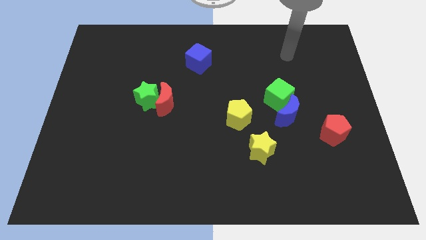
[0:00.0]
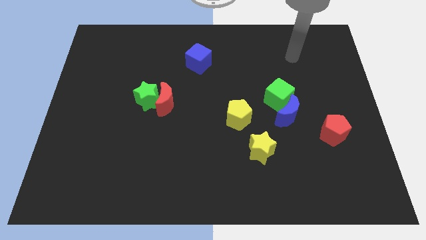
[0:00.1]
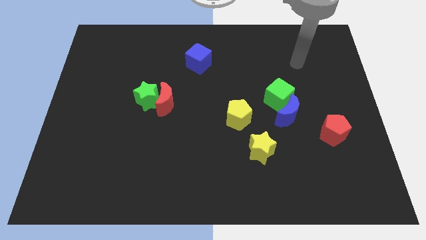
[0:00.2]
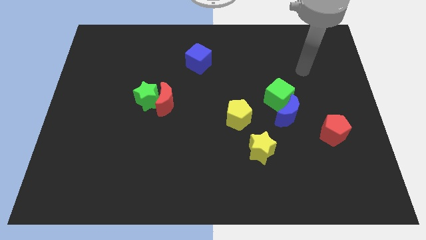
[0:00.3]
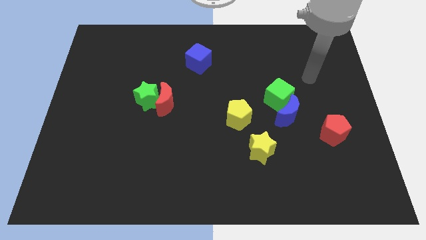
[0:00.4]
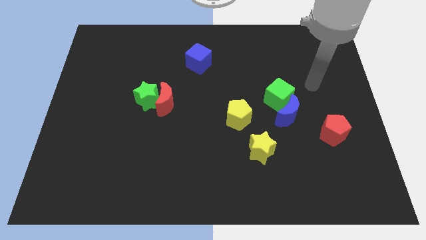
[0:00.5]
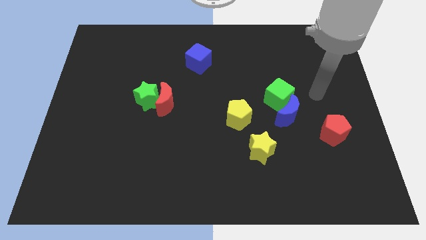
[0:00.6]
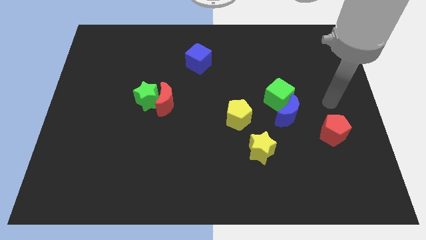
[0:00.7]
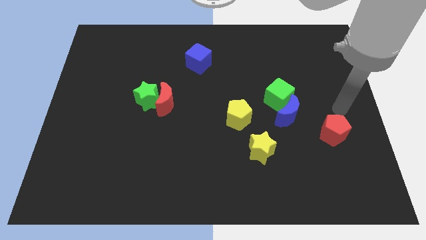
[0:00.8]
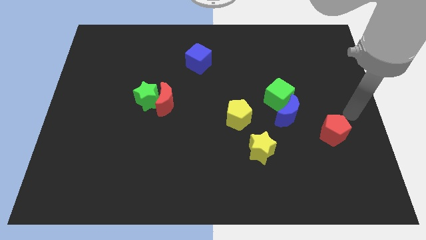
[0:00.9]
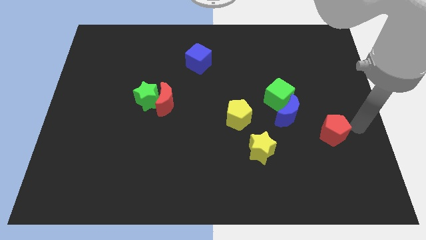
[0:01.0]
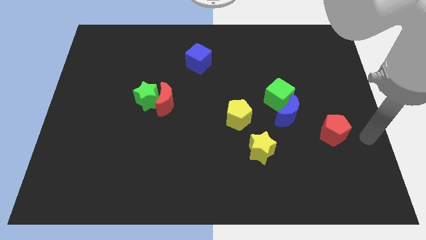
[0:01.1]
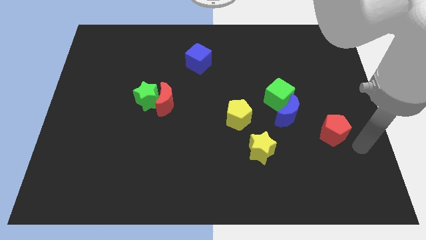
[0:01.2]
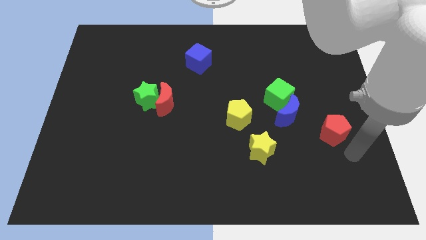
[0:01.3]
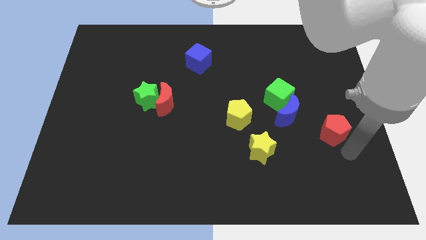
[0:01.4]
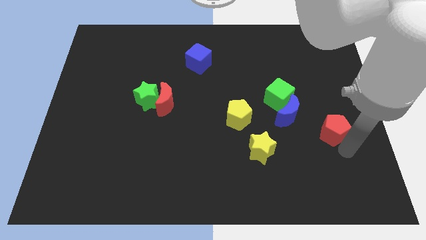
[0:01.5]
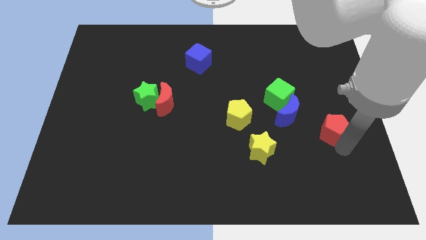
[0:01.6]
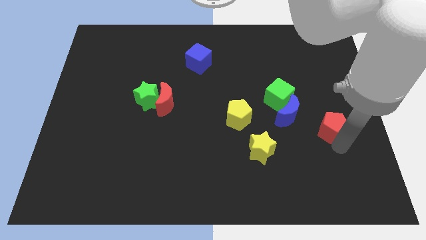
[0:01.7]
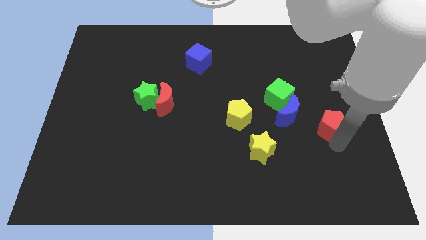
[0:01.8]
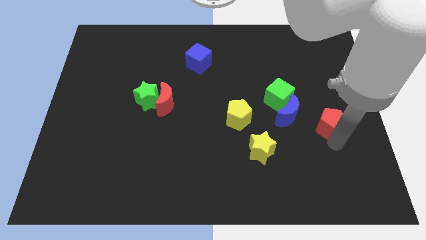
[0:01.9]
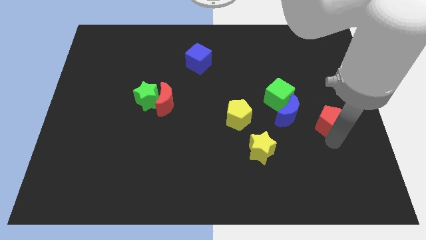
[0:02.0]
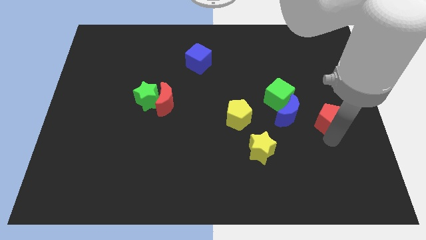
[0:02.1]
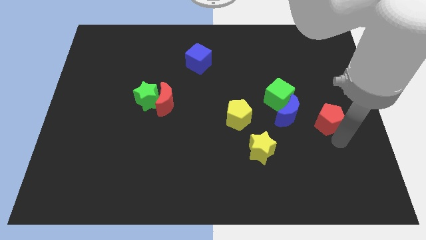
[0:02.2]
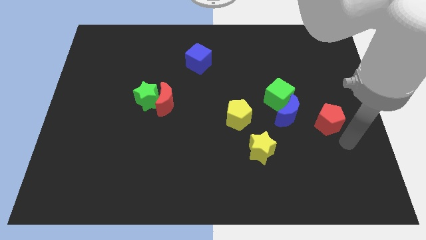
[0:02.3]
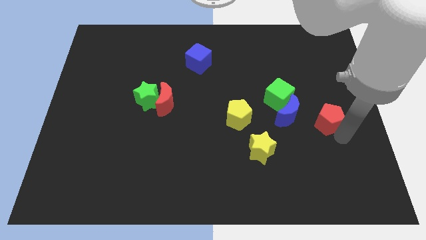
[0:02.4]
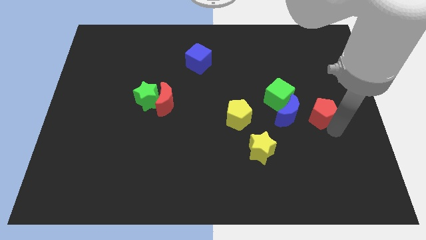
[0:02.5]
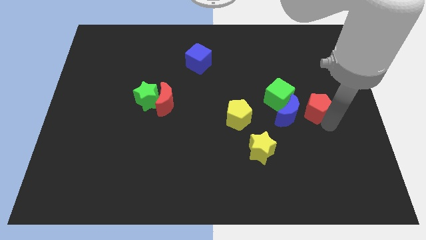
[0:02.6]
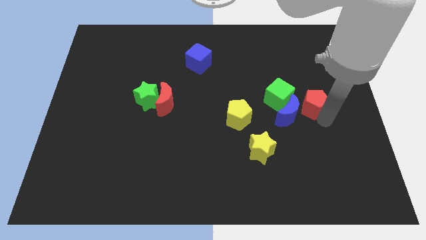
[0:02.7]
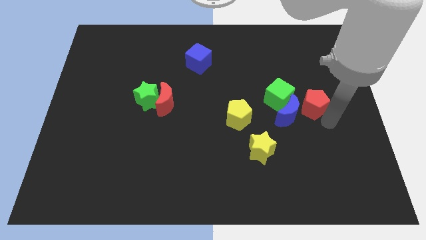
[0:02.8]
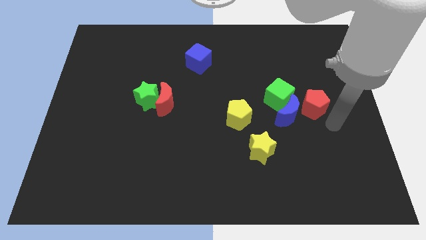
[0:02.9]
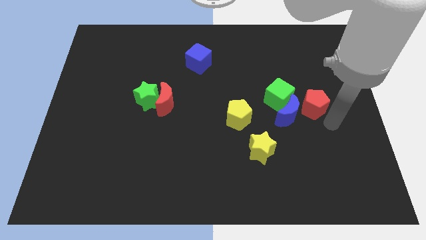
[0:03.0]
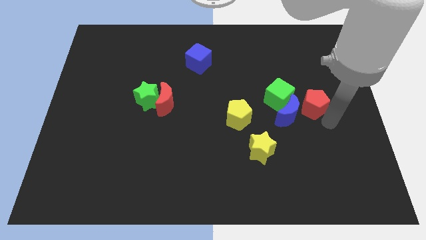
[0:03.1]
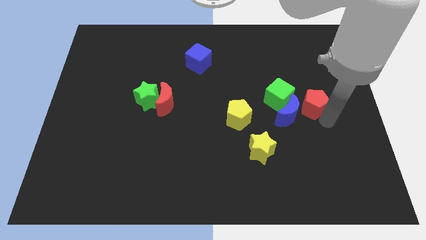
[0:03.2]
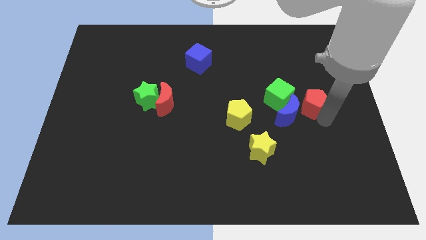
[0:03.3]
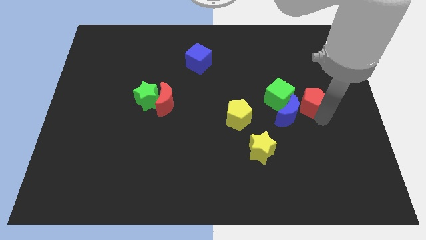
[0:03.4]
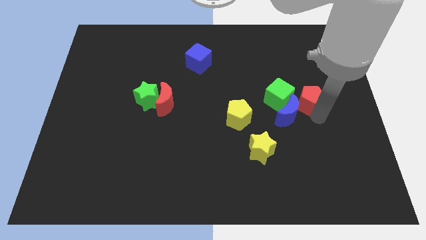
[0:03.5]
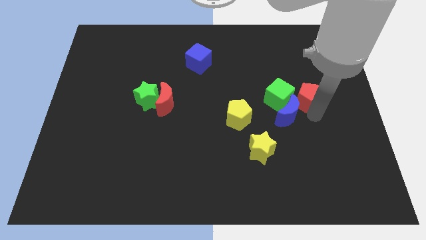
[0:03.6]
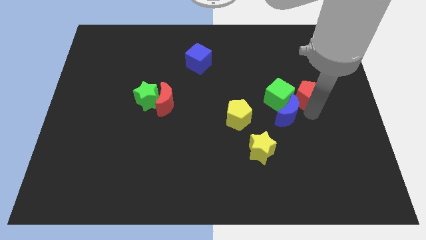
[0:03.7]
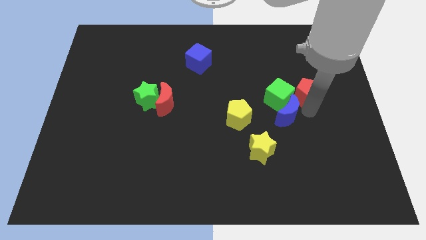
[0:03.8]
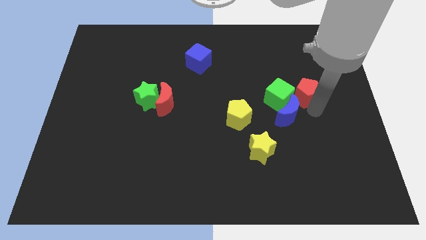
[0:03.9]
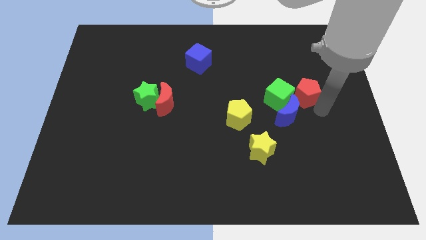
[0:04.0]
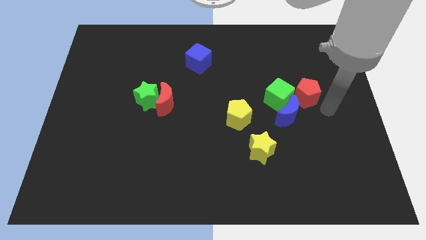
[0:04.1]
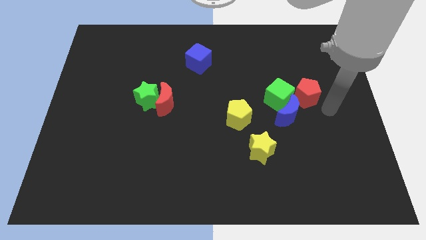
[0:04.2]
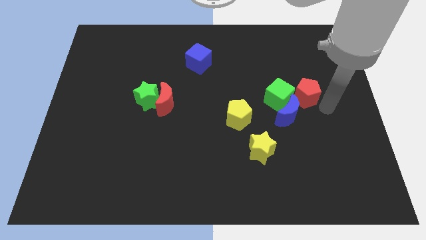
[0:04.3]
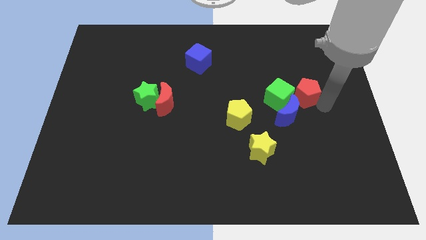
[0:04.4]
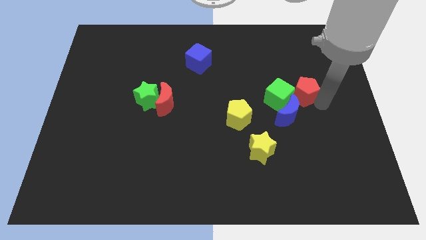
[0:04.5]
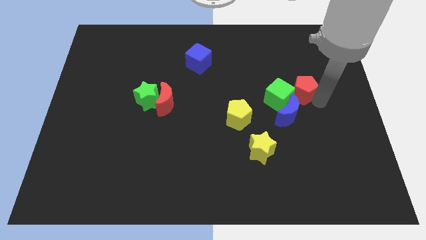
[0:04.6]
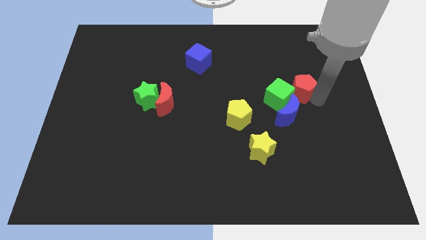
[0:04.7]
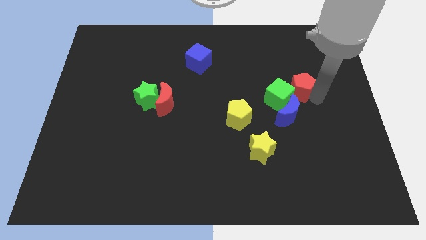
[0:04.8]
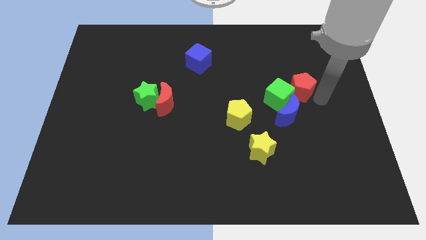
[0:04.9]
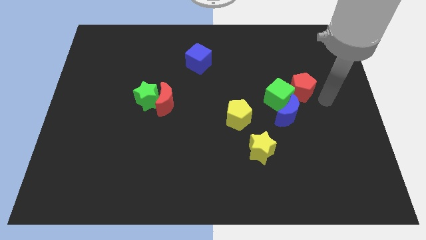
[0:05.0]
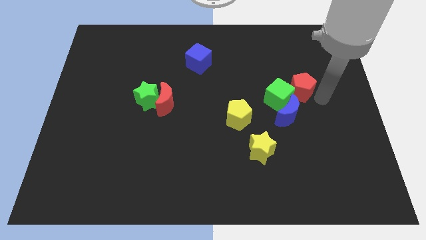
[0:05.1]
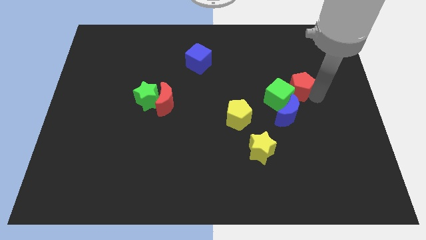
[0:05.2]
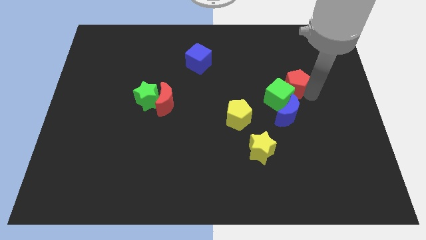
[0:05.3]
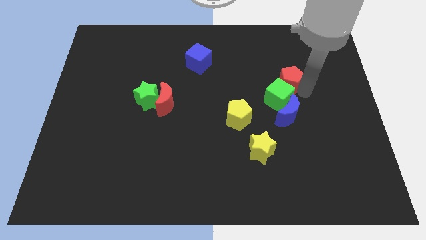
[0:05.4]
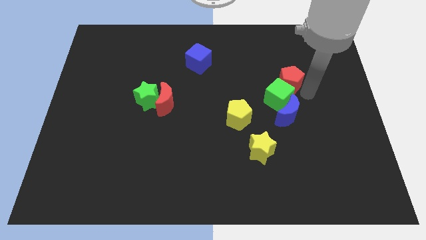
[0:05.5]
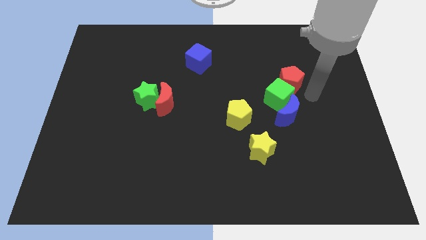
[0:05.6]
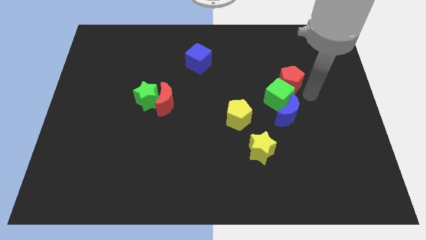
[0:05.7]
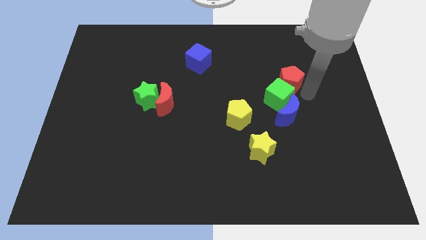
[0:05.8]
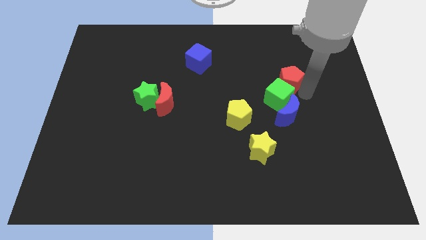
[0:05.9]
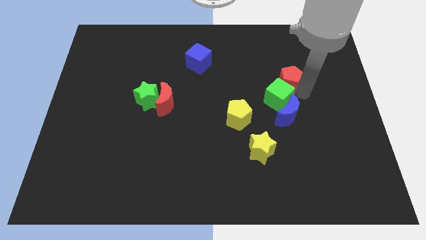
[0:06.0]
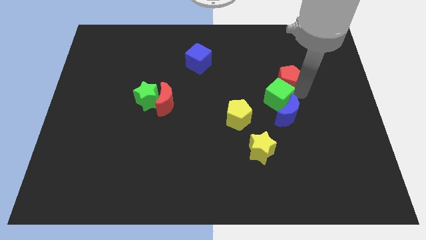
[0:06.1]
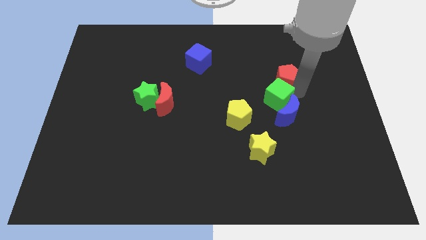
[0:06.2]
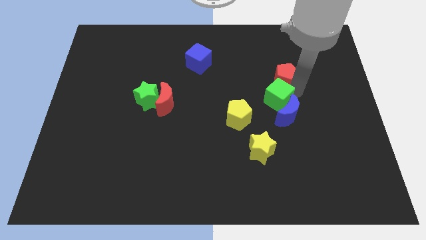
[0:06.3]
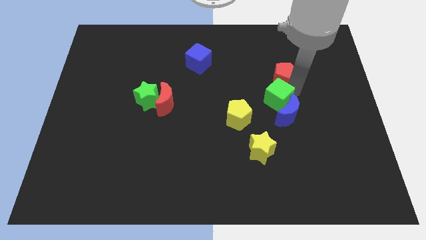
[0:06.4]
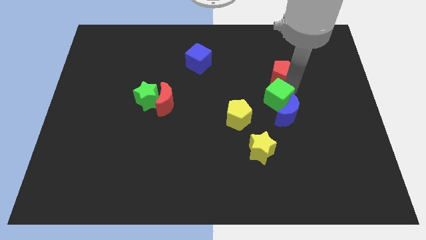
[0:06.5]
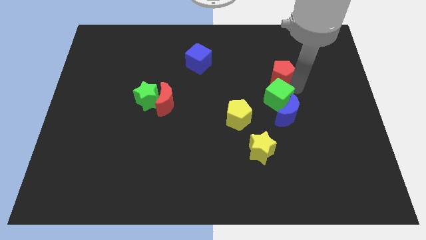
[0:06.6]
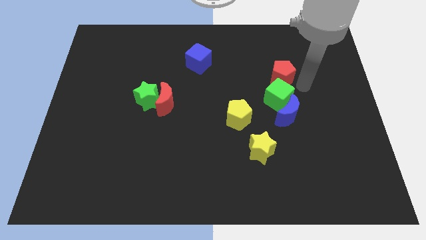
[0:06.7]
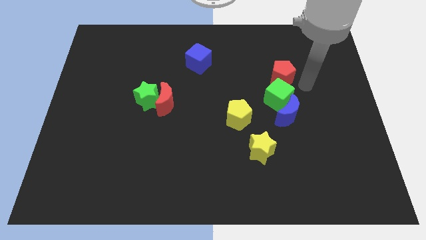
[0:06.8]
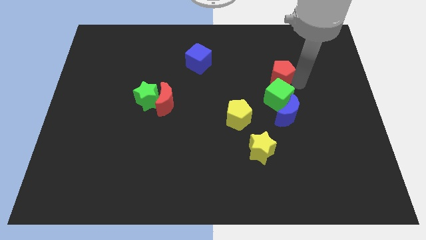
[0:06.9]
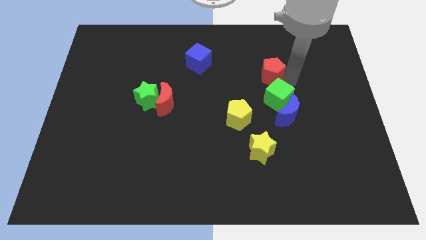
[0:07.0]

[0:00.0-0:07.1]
slide the red pentagon upwards and then left

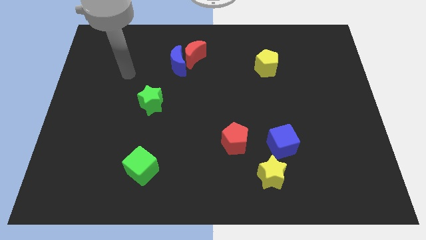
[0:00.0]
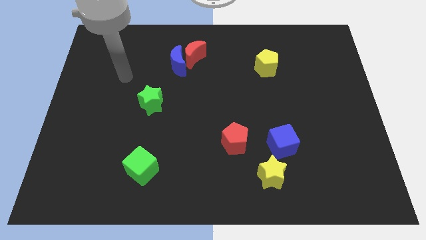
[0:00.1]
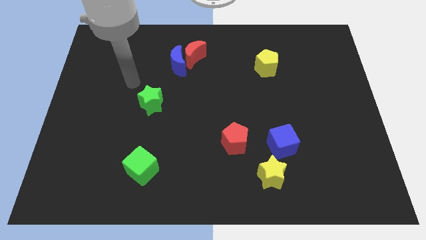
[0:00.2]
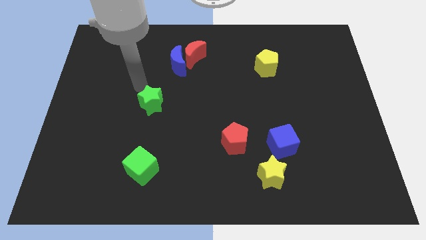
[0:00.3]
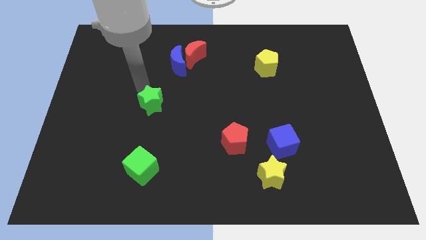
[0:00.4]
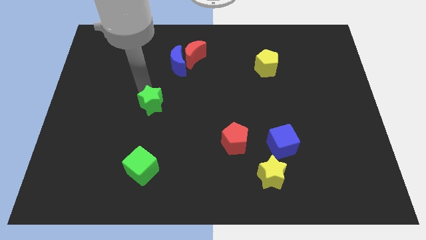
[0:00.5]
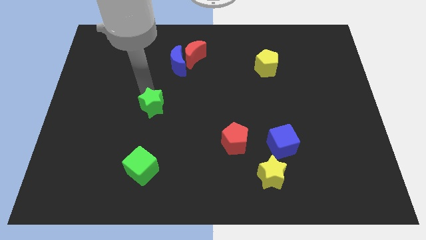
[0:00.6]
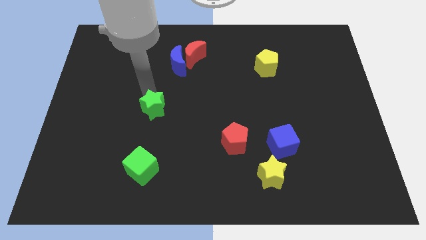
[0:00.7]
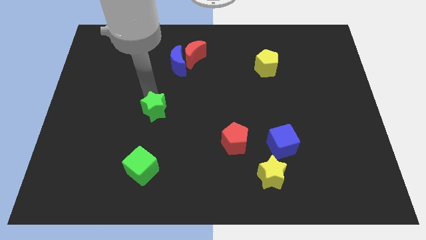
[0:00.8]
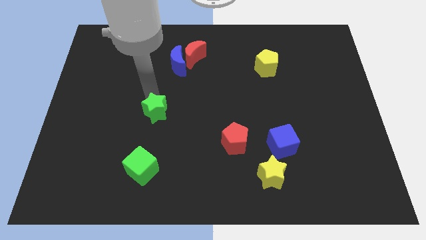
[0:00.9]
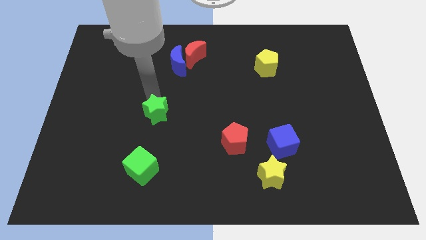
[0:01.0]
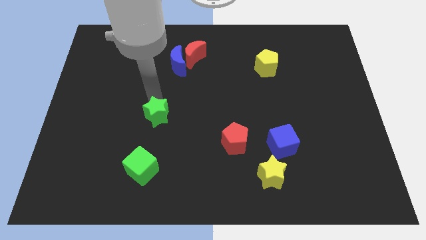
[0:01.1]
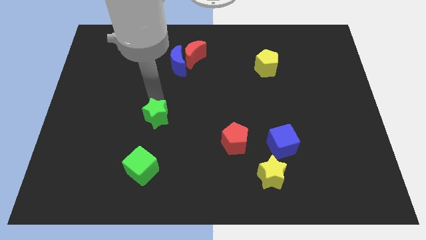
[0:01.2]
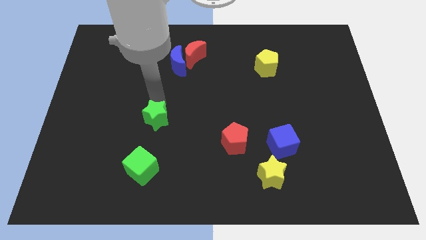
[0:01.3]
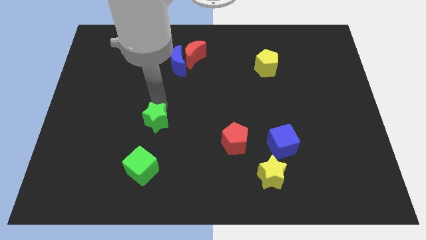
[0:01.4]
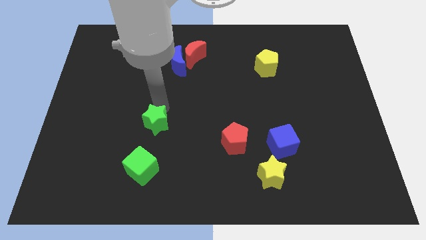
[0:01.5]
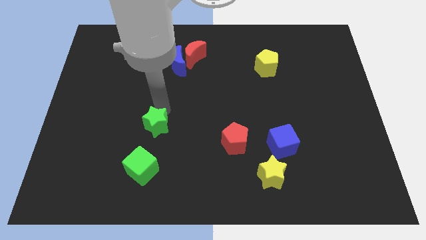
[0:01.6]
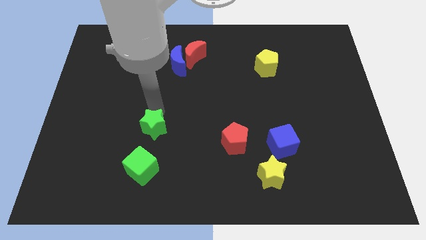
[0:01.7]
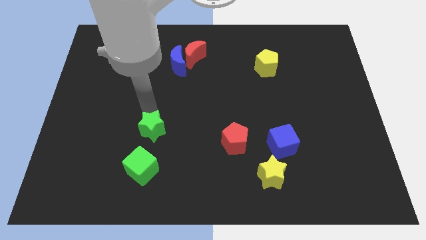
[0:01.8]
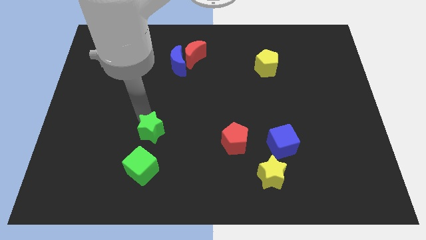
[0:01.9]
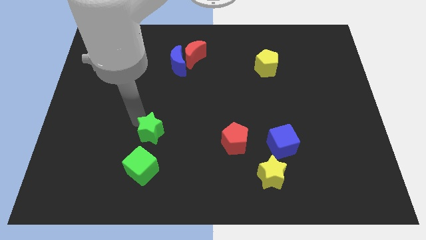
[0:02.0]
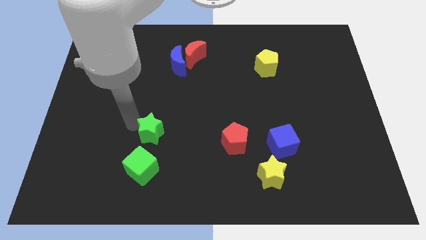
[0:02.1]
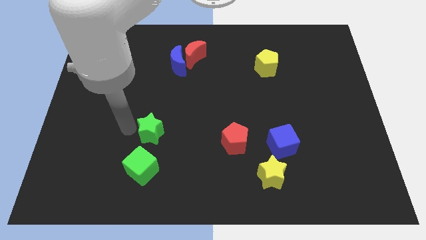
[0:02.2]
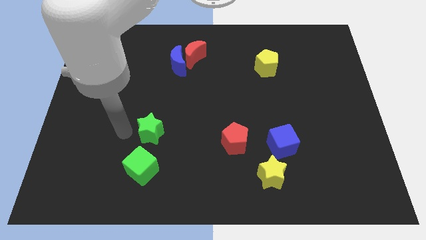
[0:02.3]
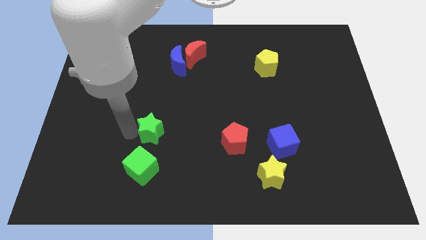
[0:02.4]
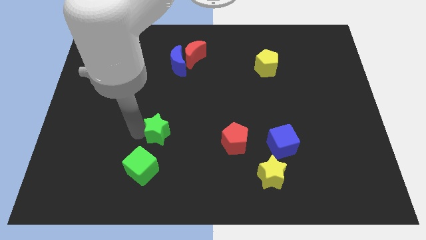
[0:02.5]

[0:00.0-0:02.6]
slightly push the green star downwards and to the right
